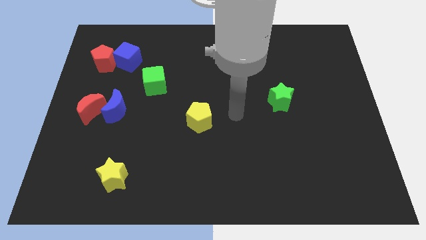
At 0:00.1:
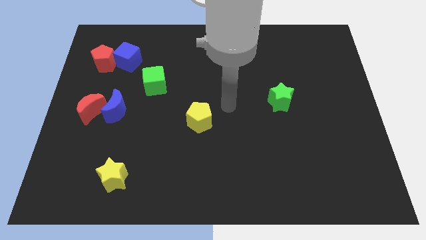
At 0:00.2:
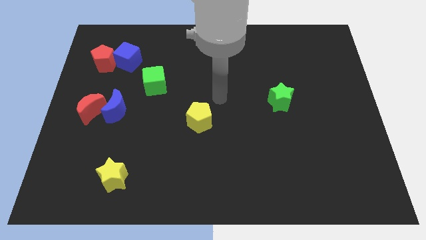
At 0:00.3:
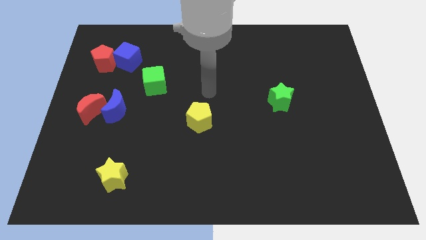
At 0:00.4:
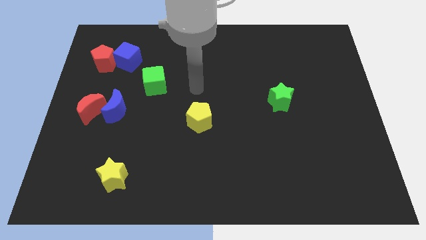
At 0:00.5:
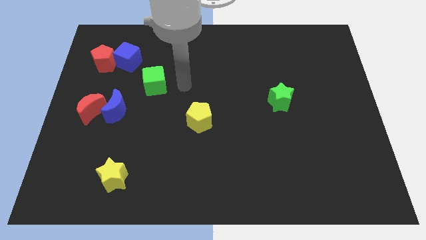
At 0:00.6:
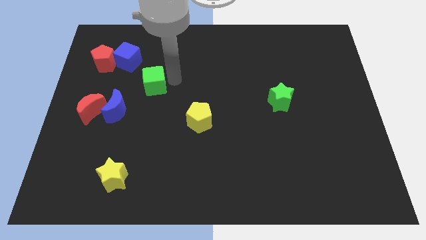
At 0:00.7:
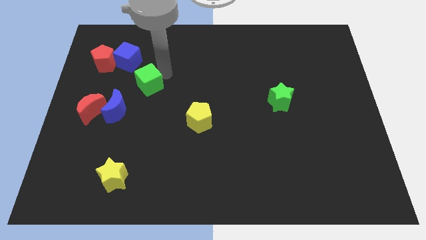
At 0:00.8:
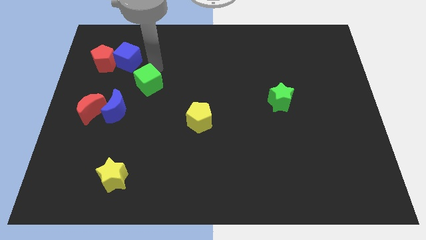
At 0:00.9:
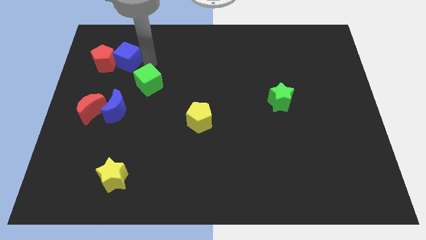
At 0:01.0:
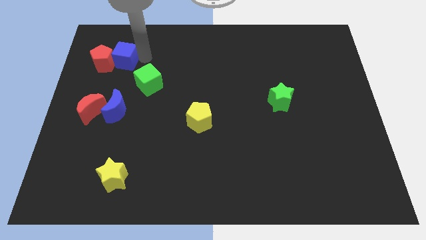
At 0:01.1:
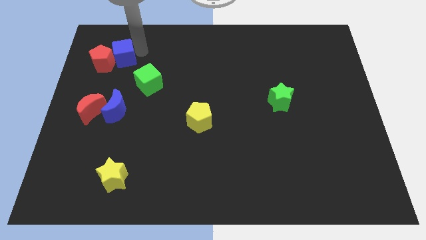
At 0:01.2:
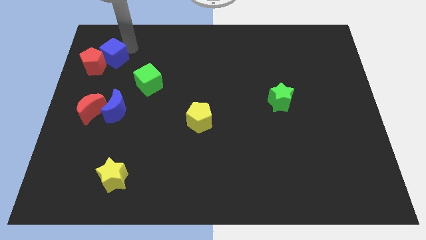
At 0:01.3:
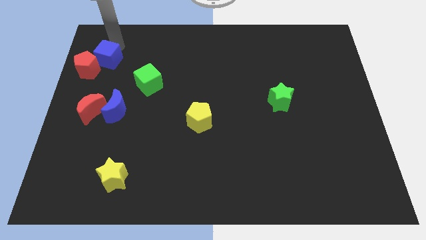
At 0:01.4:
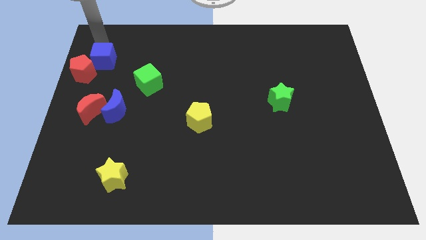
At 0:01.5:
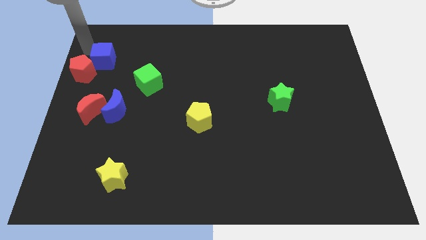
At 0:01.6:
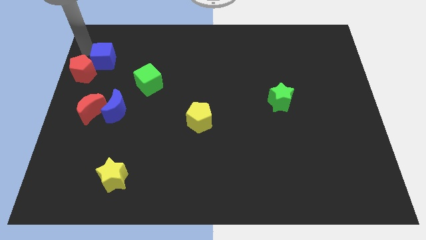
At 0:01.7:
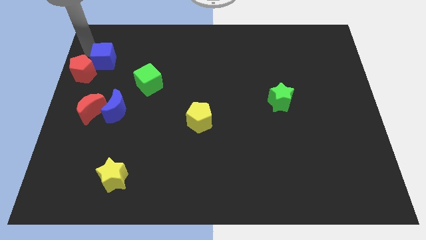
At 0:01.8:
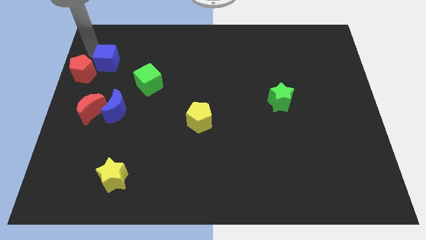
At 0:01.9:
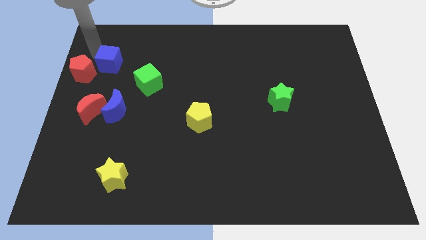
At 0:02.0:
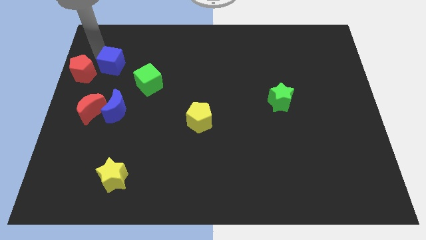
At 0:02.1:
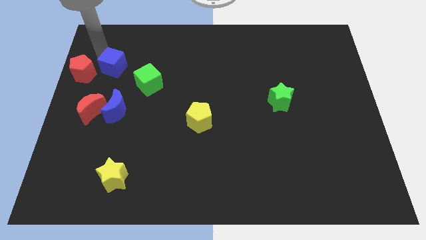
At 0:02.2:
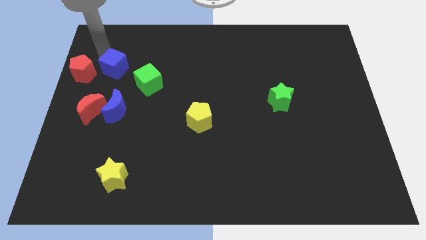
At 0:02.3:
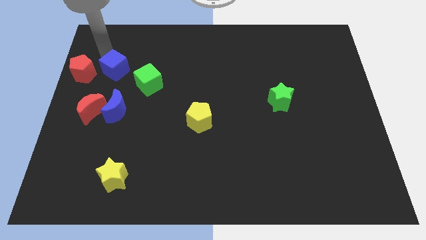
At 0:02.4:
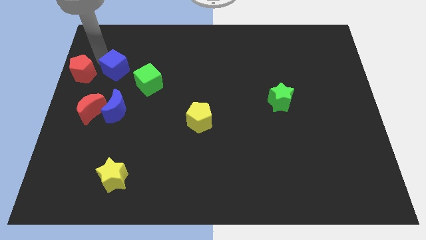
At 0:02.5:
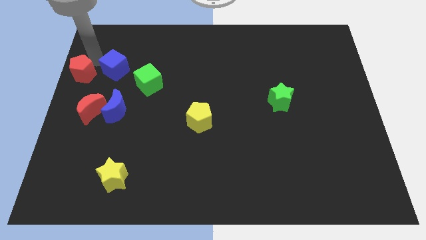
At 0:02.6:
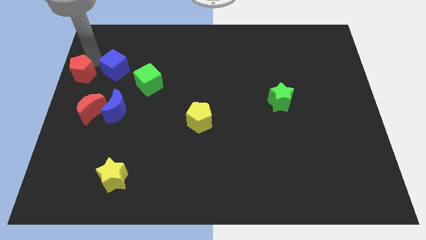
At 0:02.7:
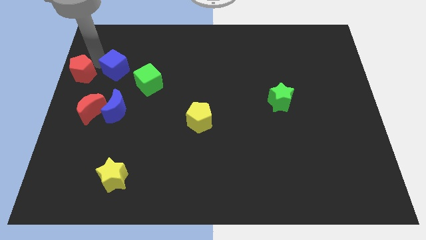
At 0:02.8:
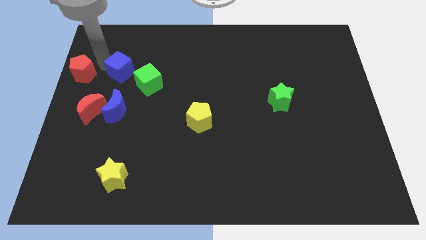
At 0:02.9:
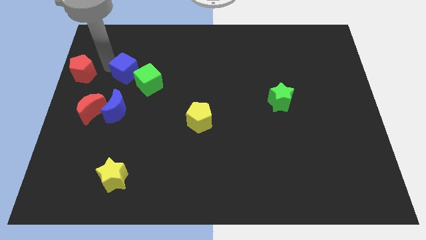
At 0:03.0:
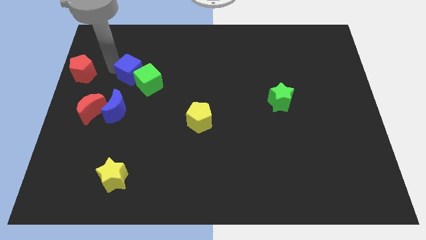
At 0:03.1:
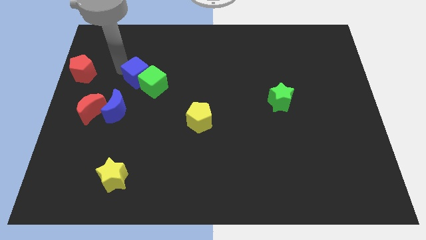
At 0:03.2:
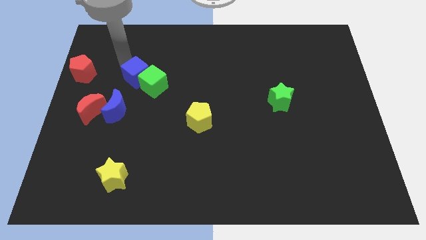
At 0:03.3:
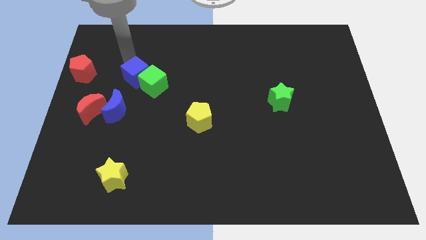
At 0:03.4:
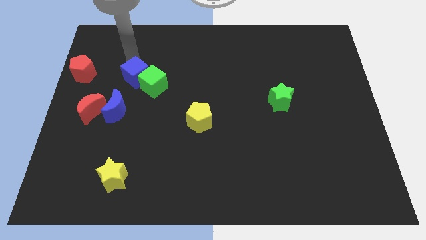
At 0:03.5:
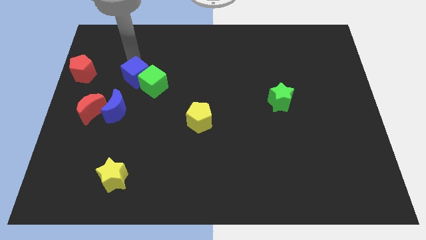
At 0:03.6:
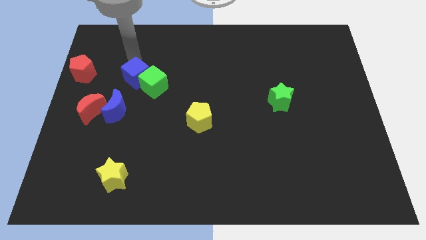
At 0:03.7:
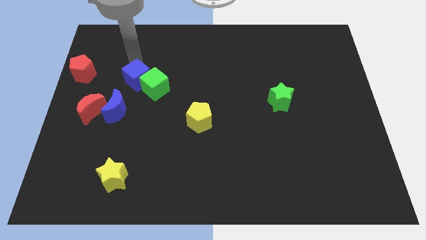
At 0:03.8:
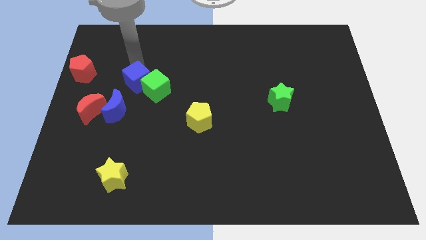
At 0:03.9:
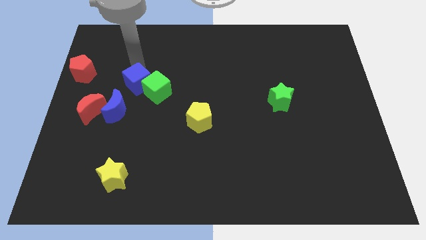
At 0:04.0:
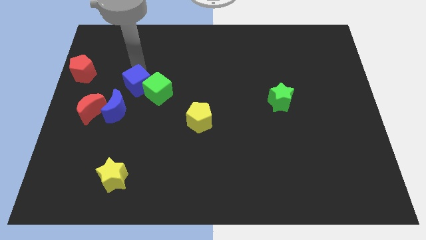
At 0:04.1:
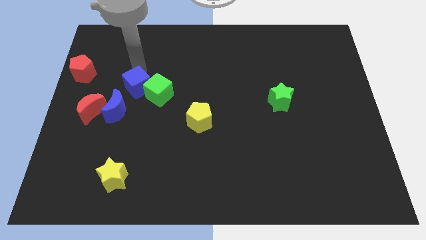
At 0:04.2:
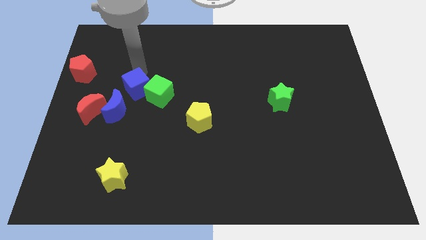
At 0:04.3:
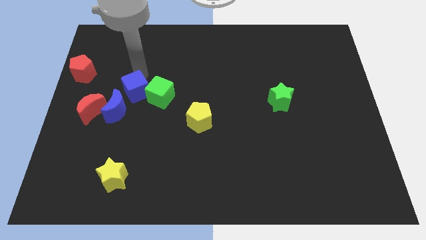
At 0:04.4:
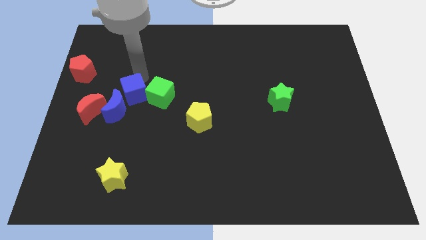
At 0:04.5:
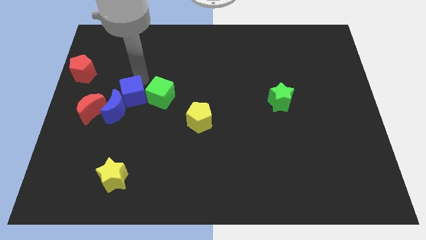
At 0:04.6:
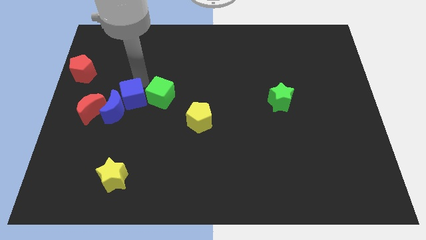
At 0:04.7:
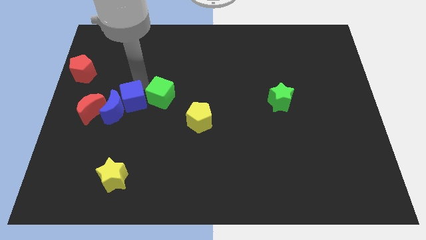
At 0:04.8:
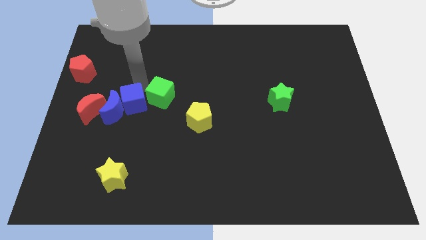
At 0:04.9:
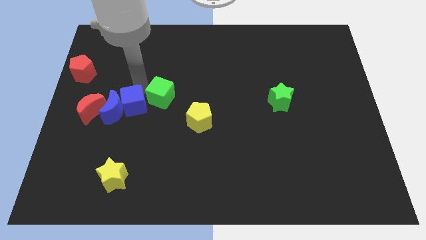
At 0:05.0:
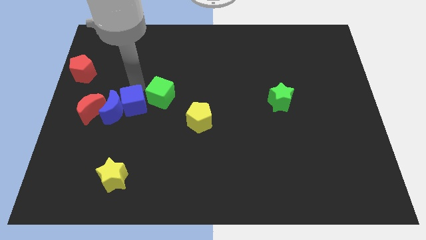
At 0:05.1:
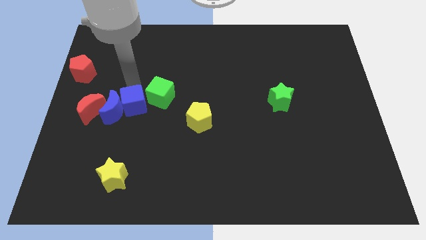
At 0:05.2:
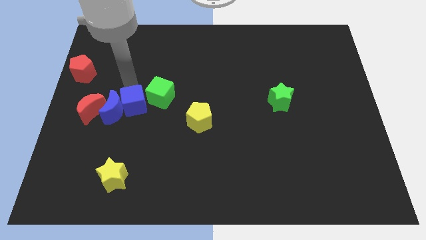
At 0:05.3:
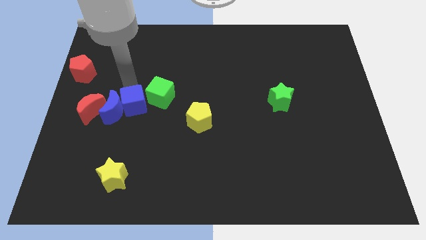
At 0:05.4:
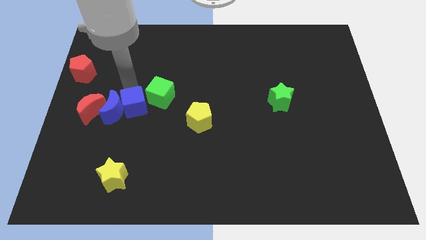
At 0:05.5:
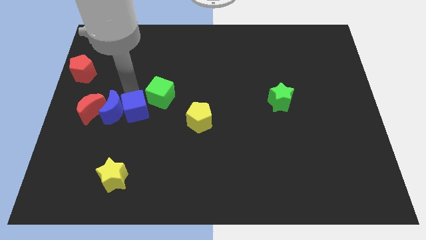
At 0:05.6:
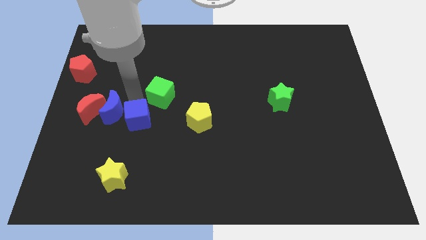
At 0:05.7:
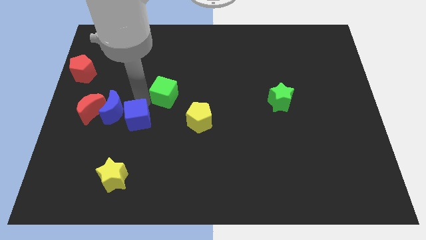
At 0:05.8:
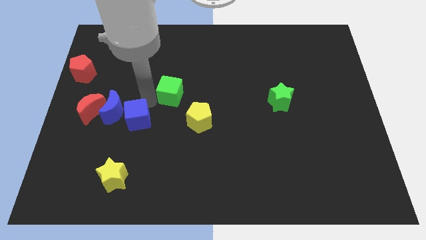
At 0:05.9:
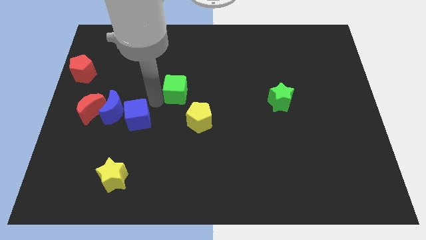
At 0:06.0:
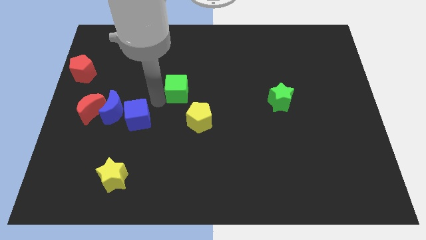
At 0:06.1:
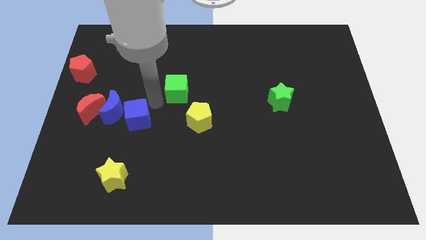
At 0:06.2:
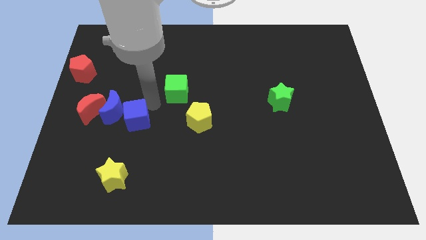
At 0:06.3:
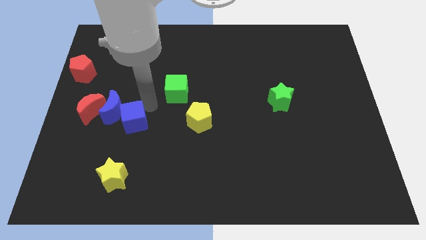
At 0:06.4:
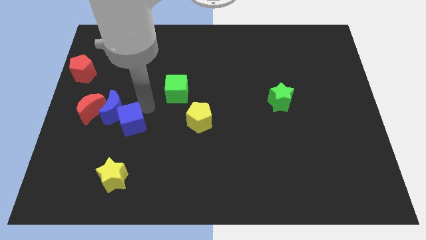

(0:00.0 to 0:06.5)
move the blue cube below the blue moon
